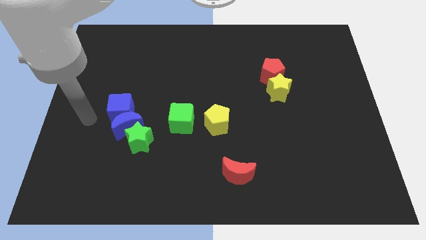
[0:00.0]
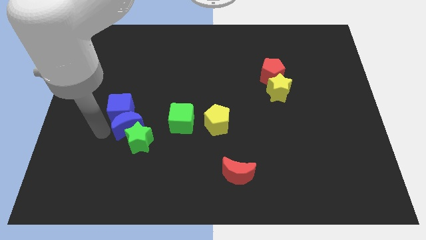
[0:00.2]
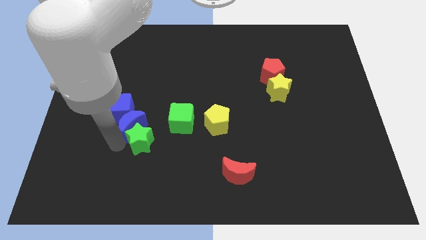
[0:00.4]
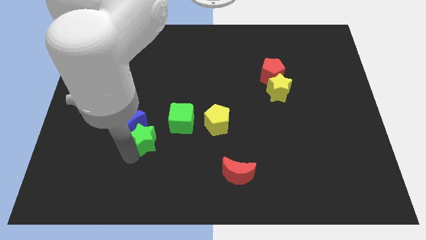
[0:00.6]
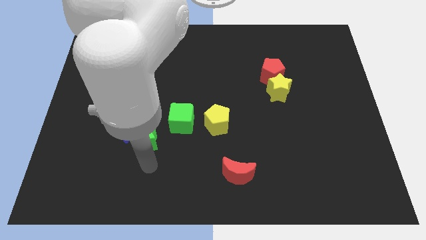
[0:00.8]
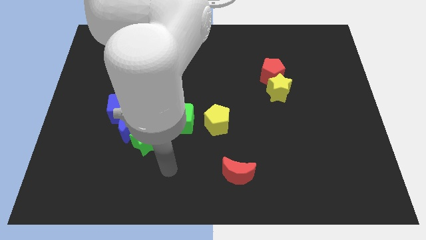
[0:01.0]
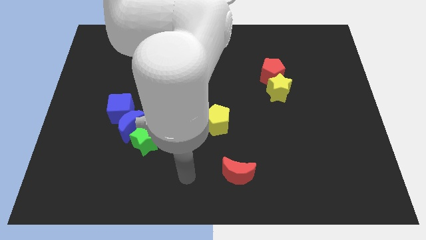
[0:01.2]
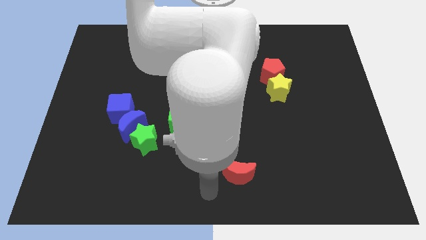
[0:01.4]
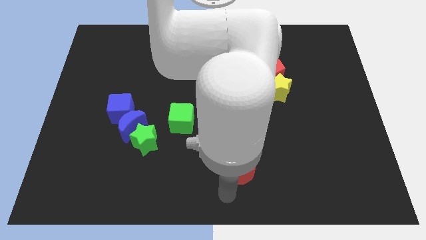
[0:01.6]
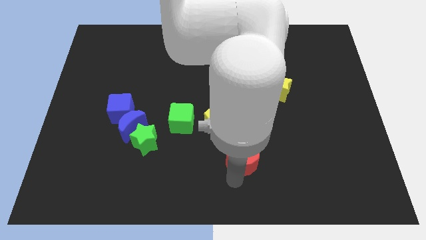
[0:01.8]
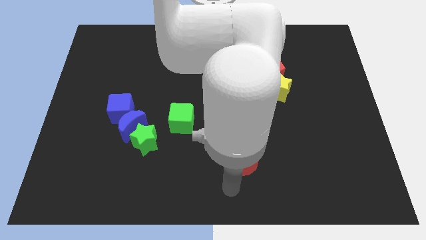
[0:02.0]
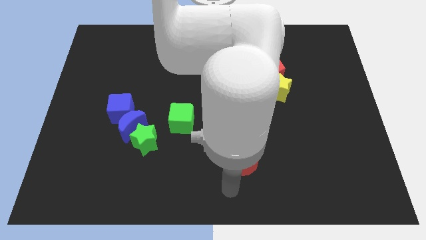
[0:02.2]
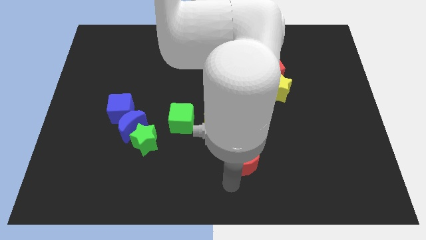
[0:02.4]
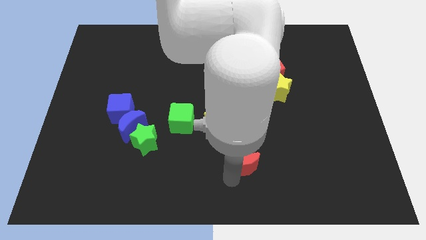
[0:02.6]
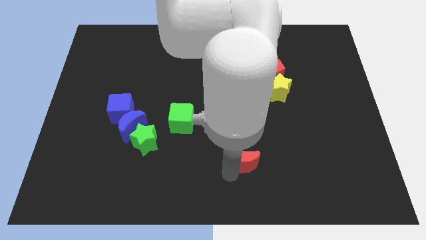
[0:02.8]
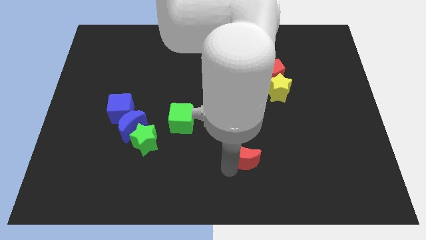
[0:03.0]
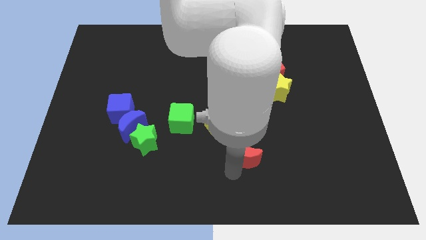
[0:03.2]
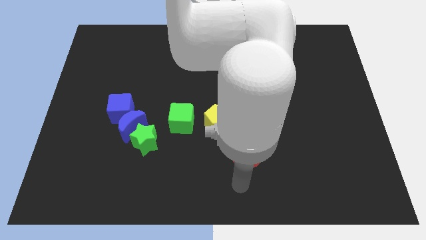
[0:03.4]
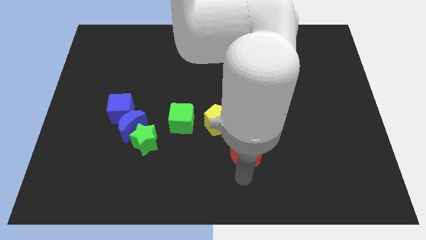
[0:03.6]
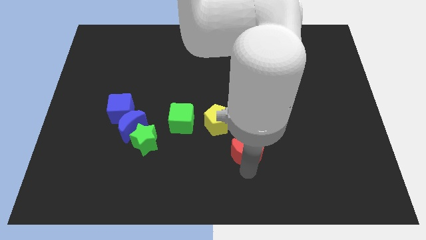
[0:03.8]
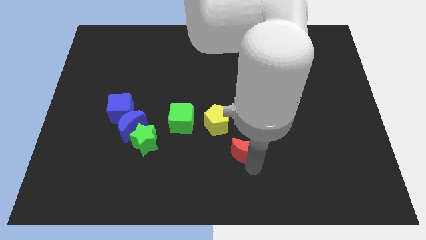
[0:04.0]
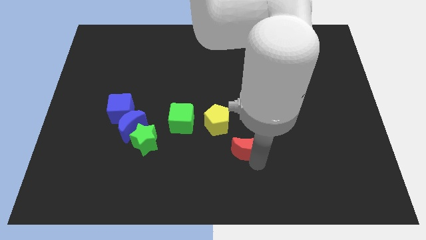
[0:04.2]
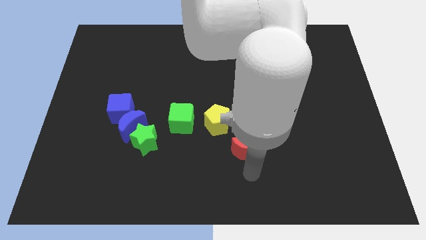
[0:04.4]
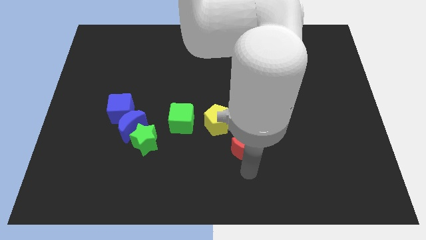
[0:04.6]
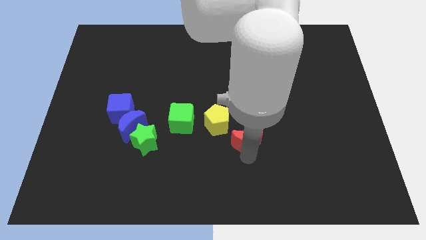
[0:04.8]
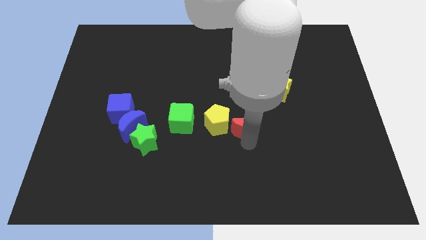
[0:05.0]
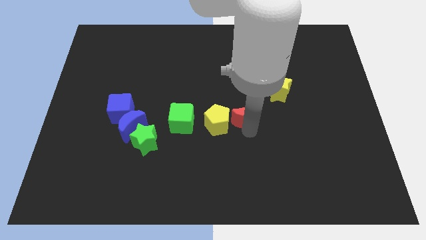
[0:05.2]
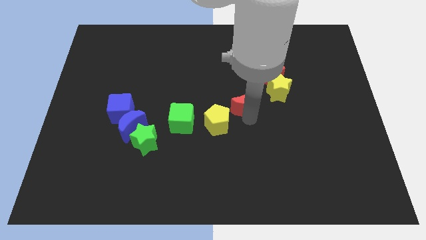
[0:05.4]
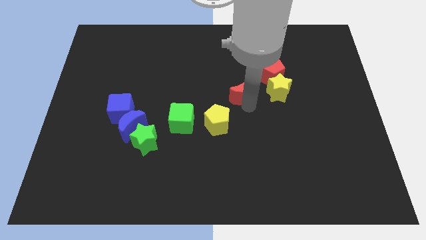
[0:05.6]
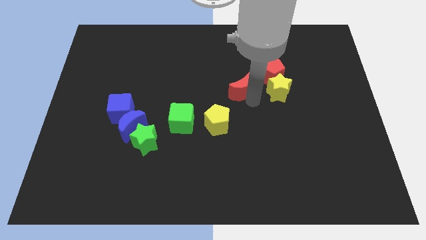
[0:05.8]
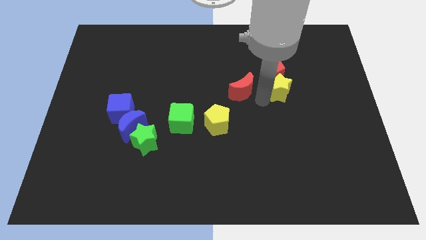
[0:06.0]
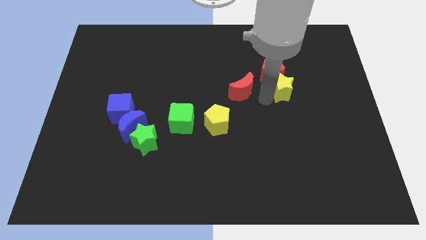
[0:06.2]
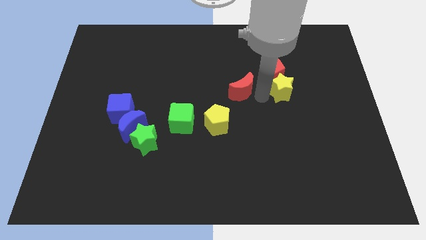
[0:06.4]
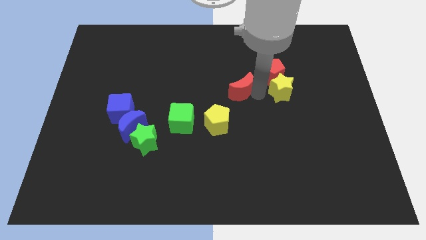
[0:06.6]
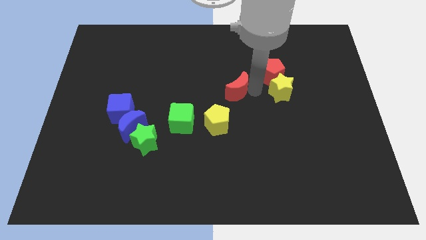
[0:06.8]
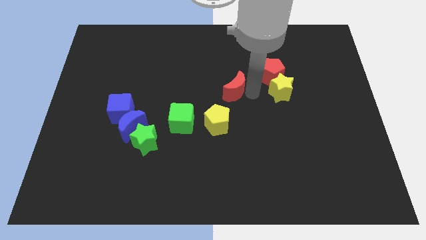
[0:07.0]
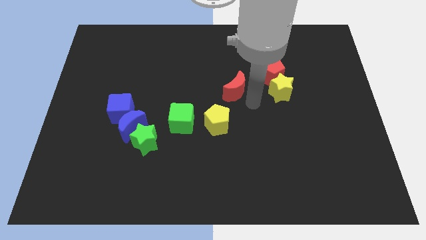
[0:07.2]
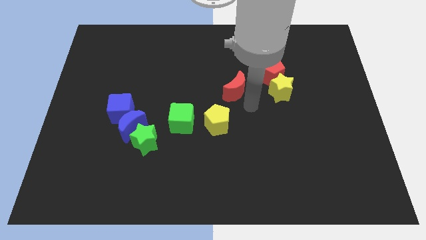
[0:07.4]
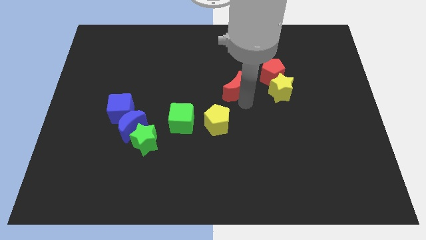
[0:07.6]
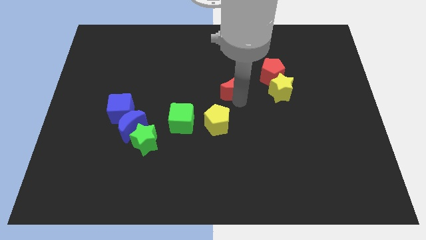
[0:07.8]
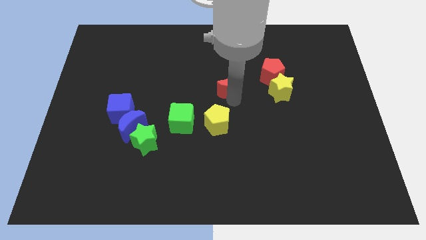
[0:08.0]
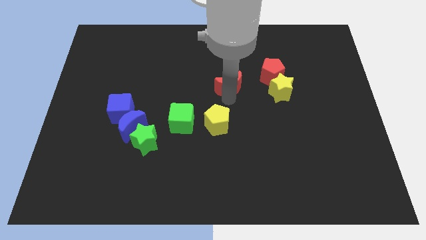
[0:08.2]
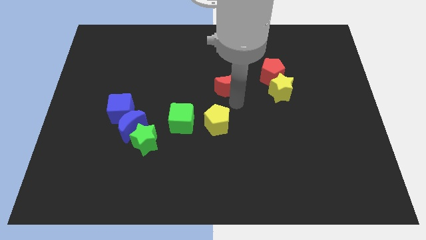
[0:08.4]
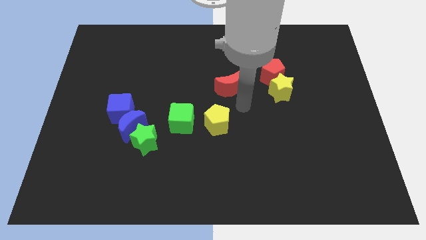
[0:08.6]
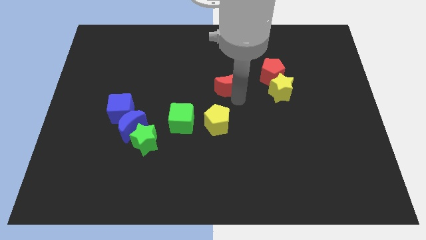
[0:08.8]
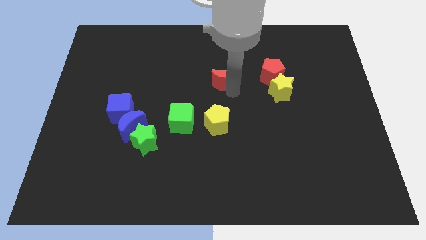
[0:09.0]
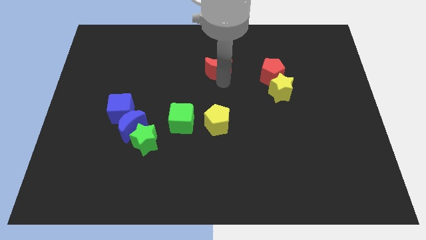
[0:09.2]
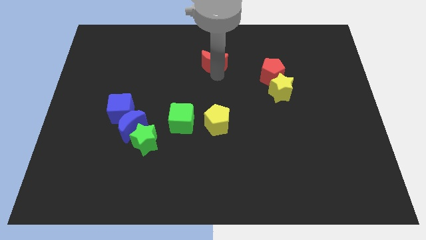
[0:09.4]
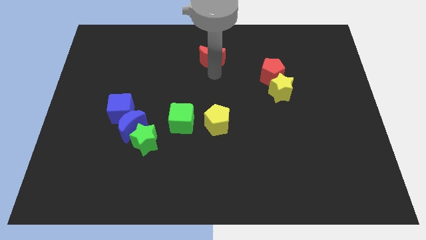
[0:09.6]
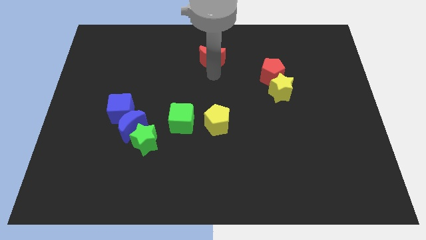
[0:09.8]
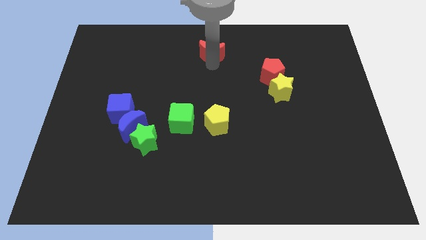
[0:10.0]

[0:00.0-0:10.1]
slide the red moon to the towards your base

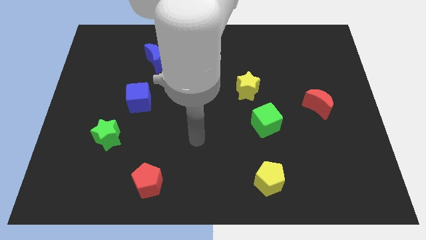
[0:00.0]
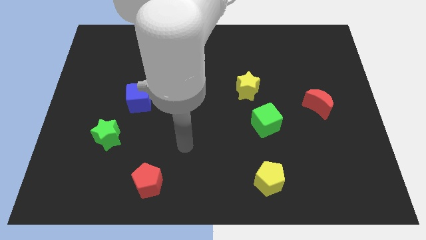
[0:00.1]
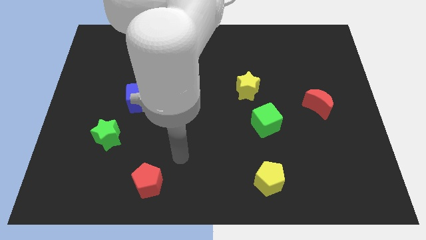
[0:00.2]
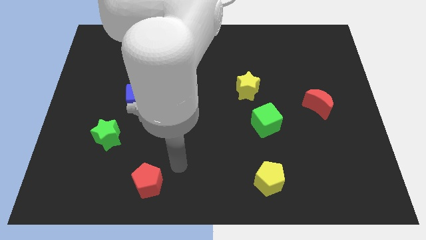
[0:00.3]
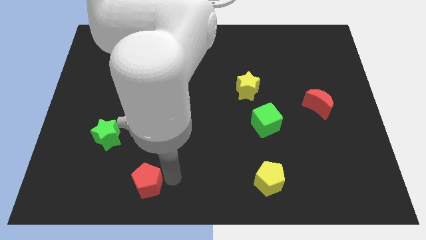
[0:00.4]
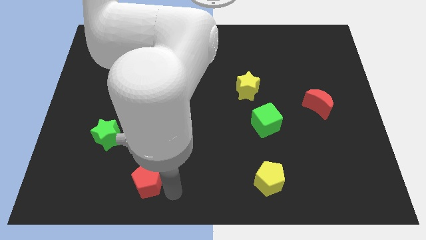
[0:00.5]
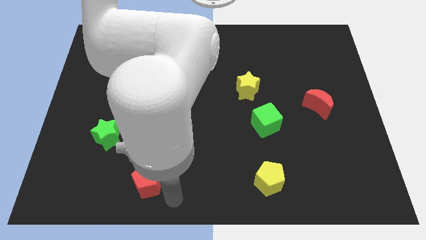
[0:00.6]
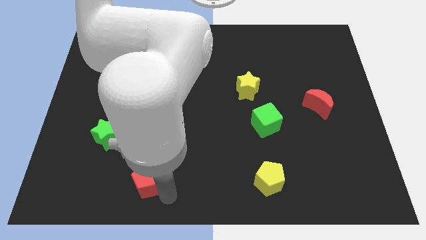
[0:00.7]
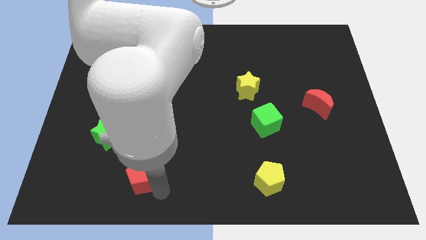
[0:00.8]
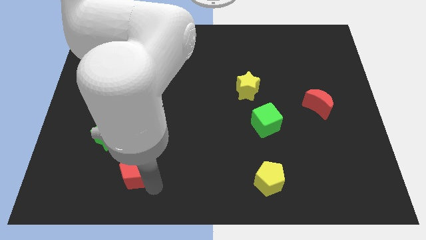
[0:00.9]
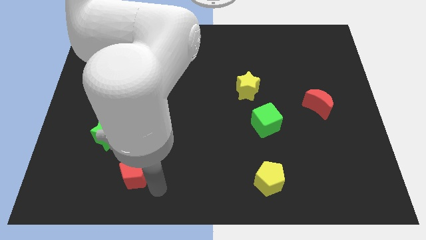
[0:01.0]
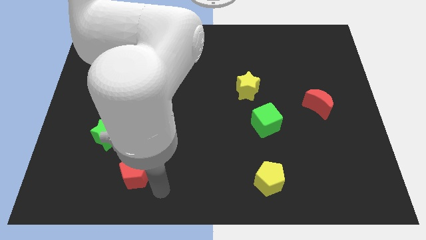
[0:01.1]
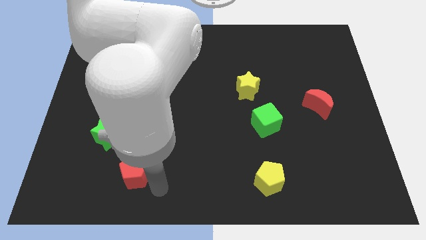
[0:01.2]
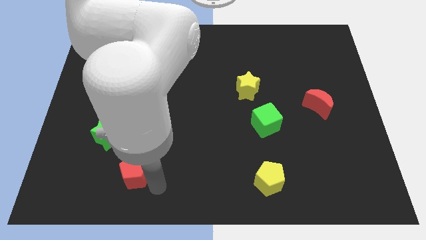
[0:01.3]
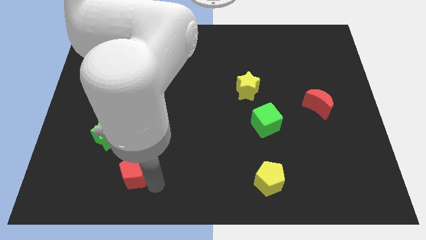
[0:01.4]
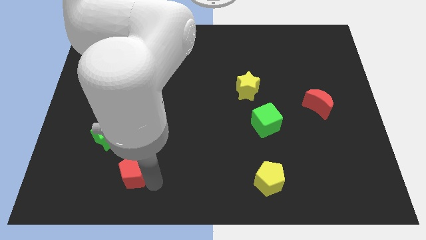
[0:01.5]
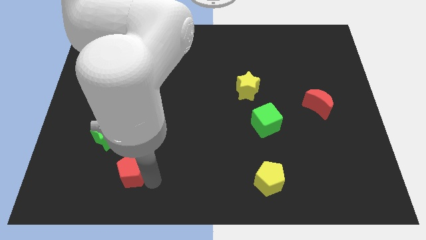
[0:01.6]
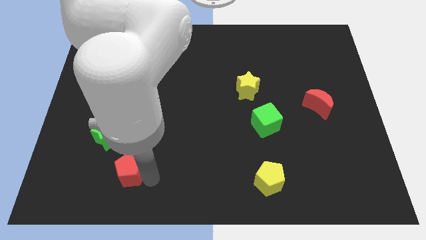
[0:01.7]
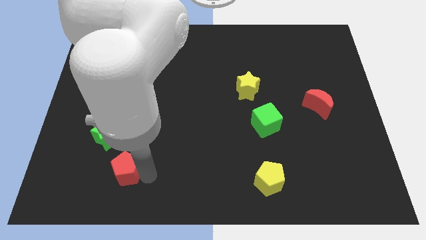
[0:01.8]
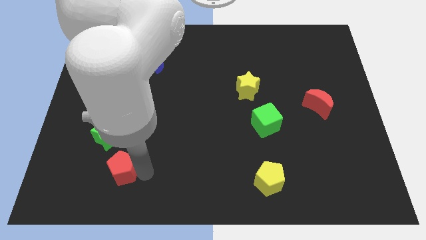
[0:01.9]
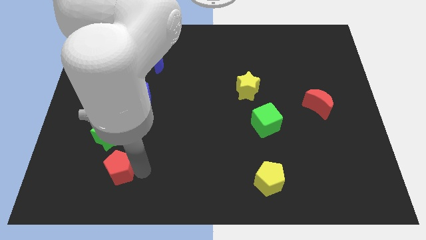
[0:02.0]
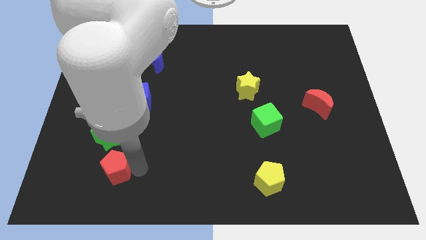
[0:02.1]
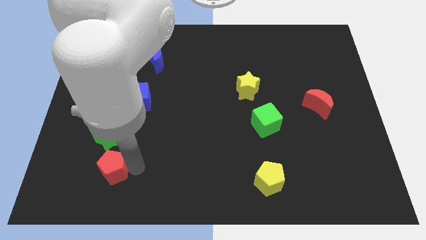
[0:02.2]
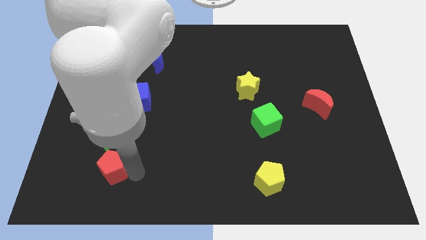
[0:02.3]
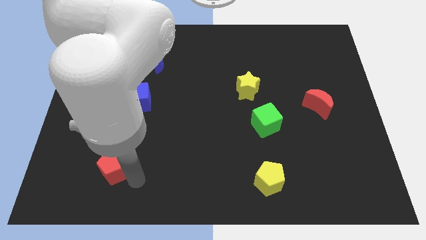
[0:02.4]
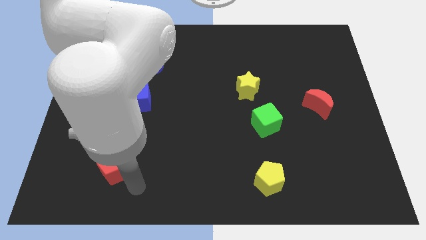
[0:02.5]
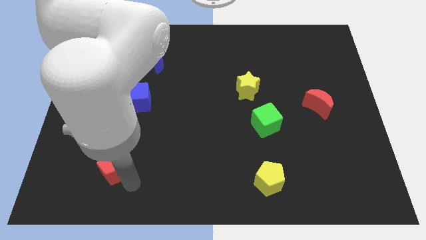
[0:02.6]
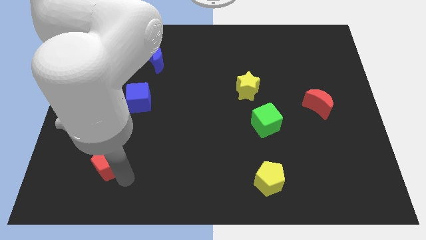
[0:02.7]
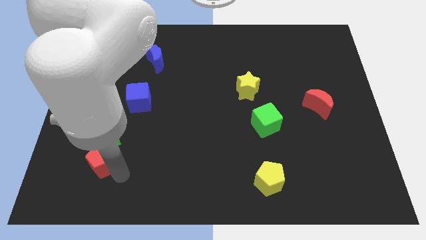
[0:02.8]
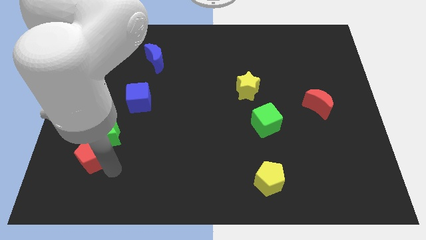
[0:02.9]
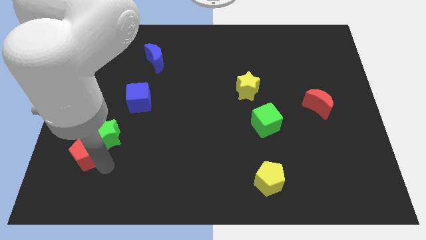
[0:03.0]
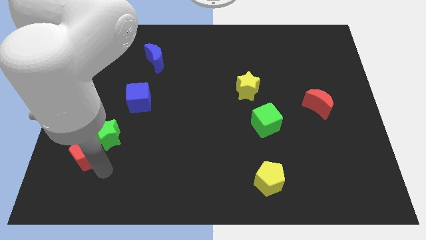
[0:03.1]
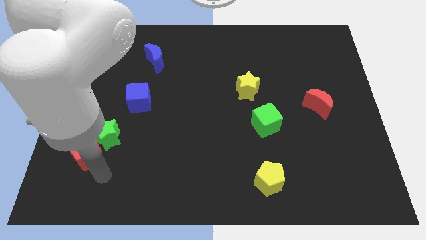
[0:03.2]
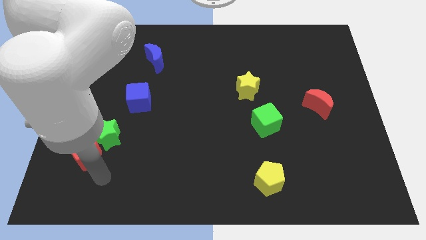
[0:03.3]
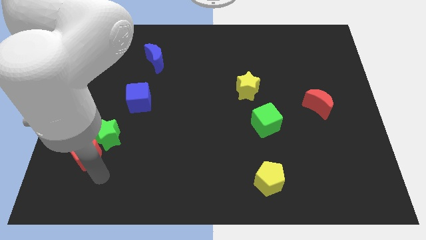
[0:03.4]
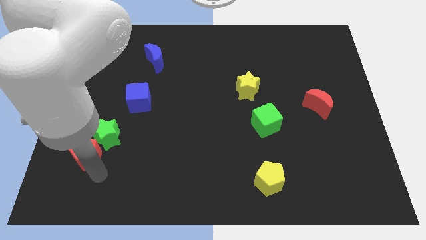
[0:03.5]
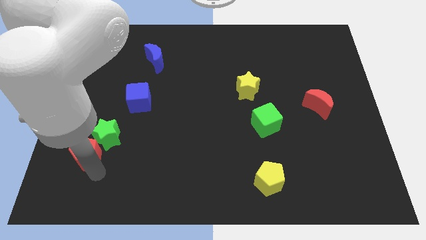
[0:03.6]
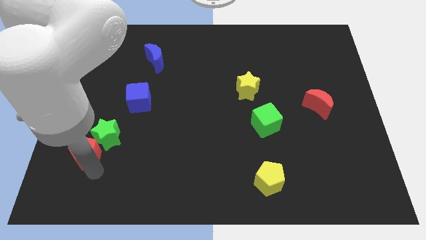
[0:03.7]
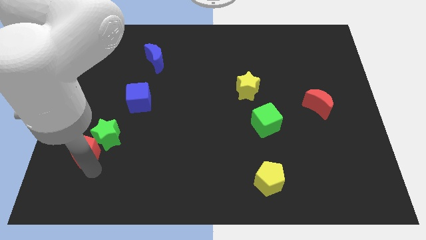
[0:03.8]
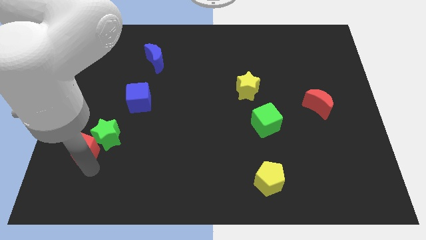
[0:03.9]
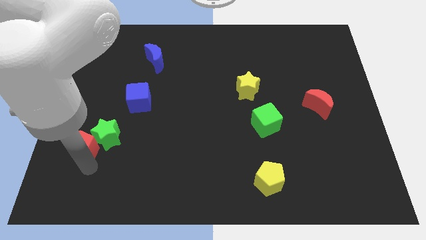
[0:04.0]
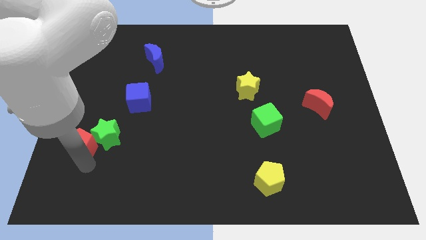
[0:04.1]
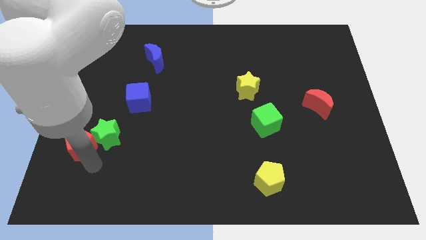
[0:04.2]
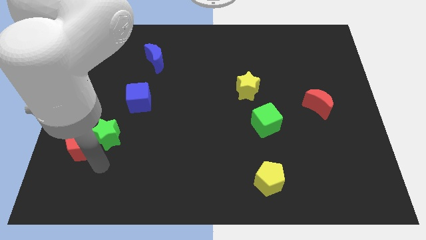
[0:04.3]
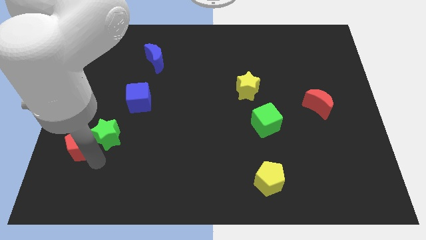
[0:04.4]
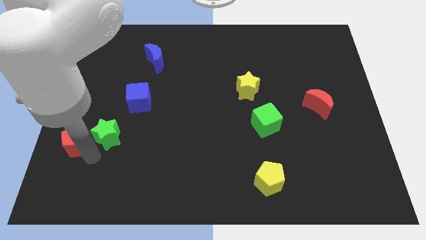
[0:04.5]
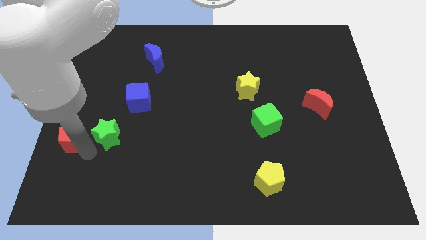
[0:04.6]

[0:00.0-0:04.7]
slide the red pentagon to the left side of the board
